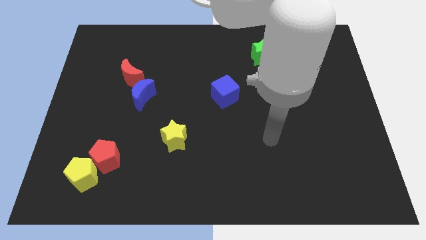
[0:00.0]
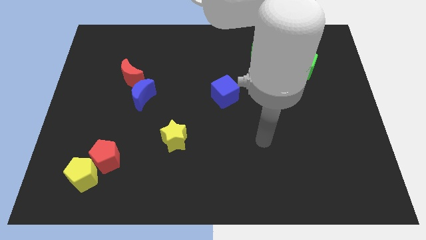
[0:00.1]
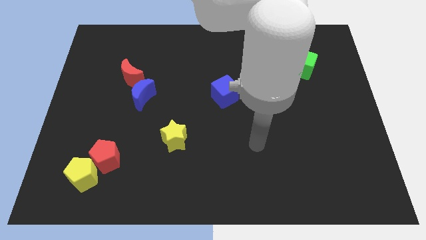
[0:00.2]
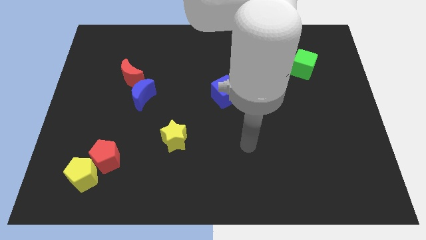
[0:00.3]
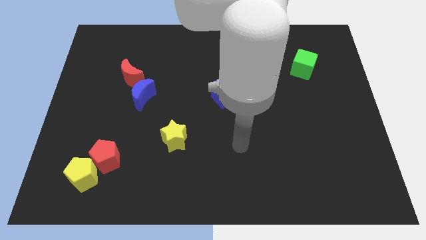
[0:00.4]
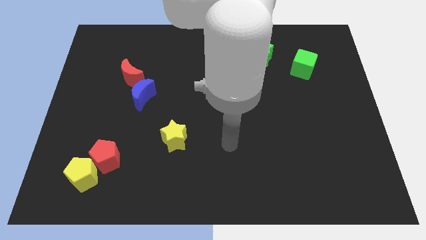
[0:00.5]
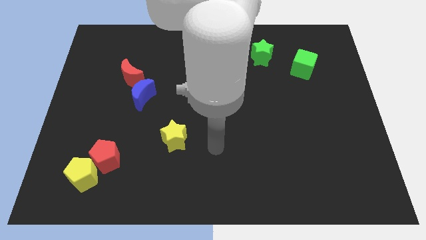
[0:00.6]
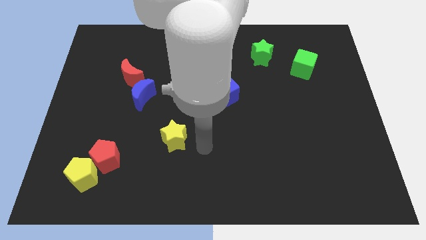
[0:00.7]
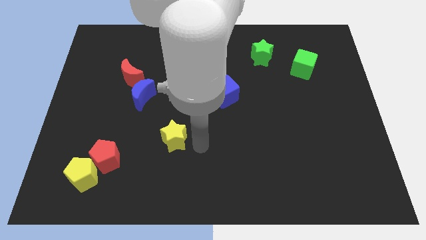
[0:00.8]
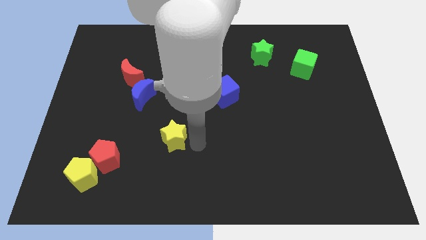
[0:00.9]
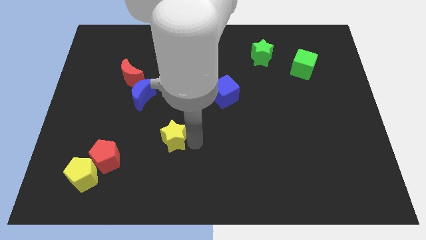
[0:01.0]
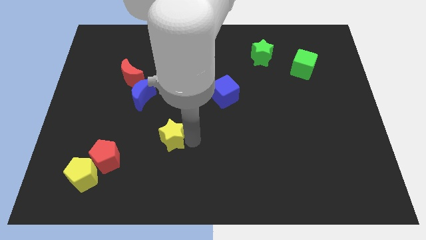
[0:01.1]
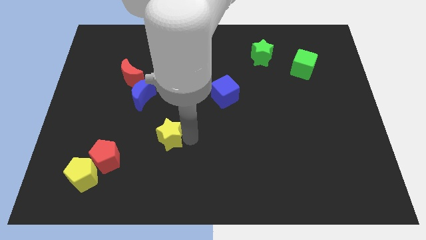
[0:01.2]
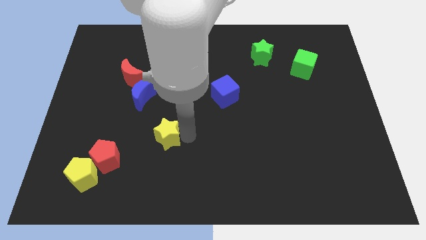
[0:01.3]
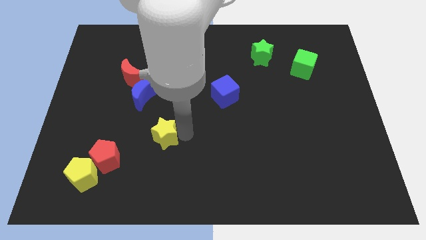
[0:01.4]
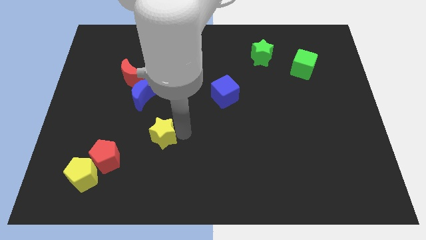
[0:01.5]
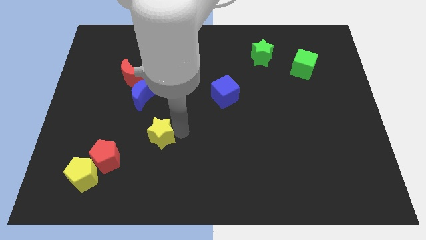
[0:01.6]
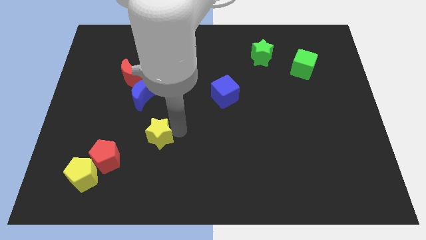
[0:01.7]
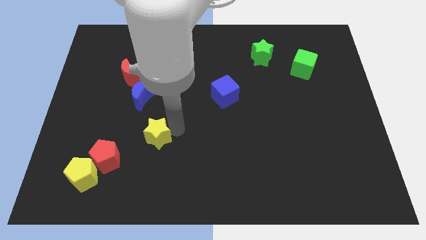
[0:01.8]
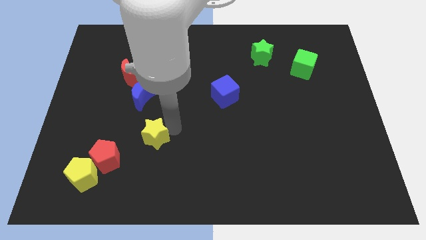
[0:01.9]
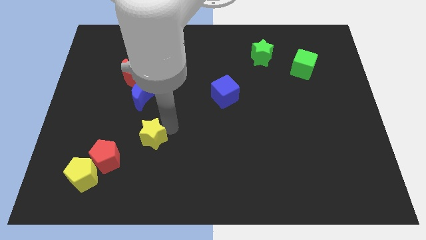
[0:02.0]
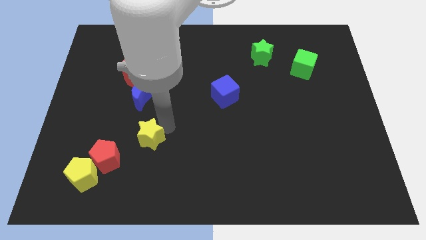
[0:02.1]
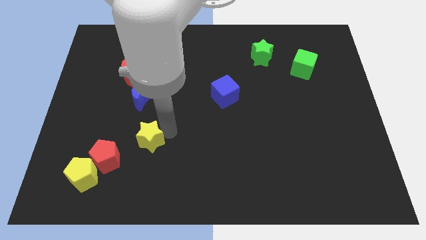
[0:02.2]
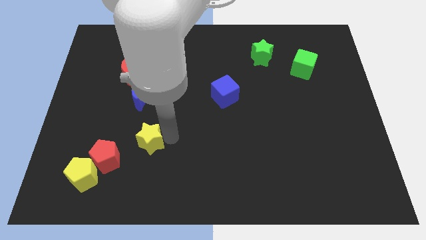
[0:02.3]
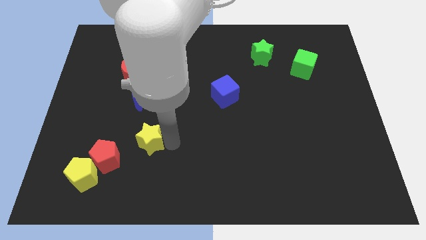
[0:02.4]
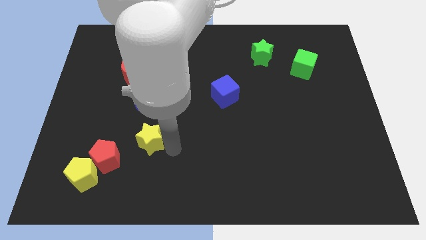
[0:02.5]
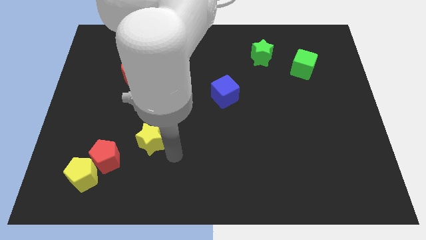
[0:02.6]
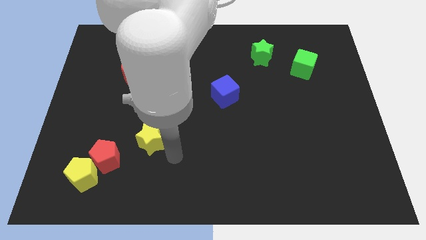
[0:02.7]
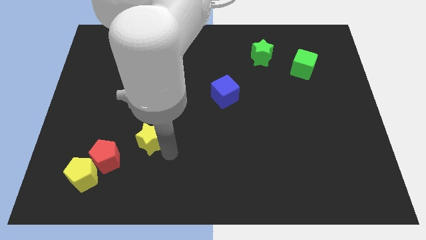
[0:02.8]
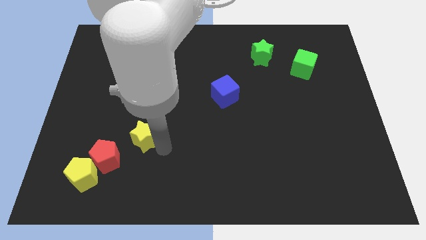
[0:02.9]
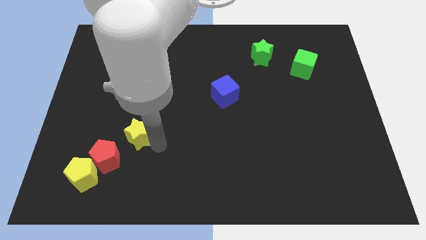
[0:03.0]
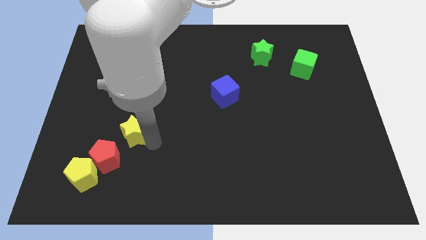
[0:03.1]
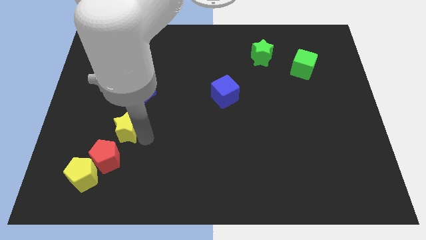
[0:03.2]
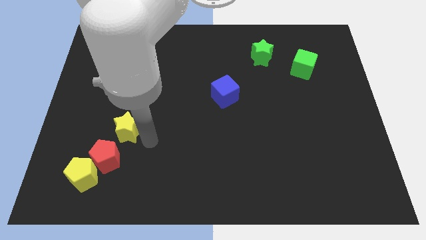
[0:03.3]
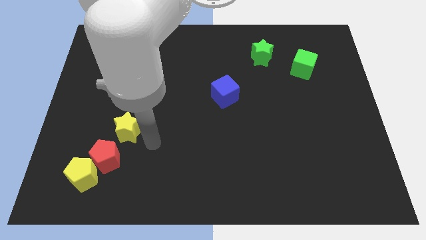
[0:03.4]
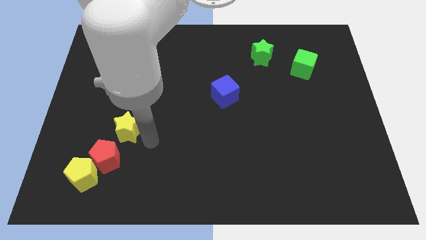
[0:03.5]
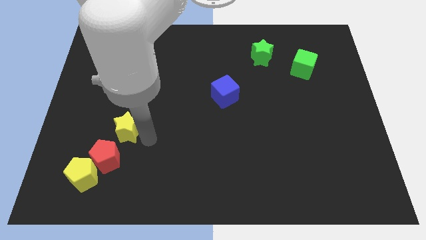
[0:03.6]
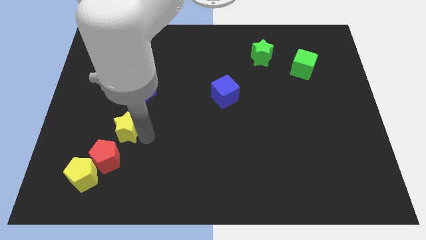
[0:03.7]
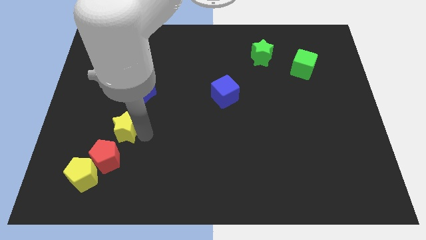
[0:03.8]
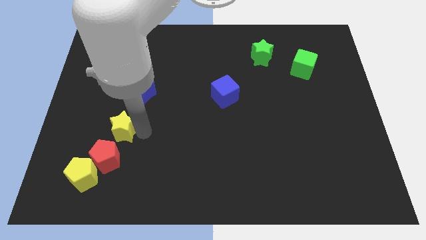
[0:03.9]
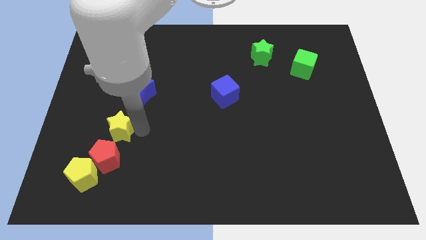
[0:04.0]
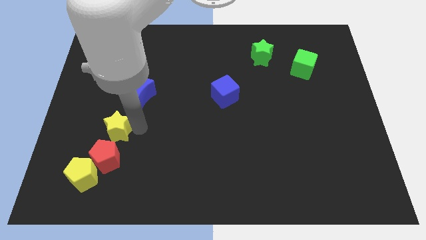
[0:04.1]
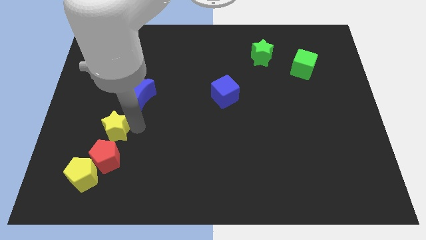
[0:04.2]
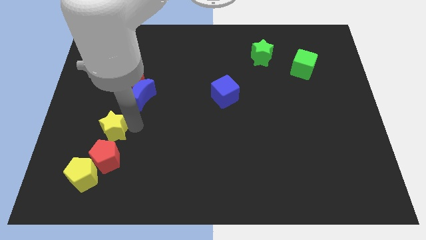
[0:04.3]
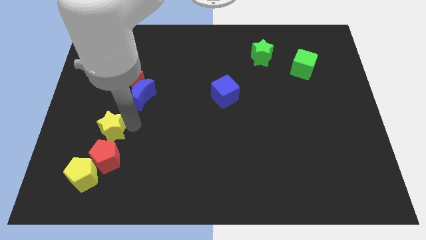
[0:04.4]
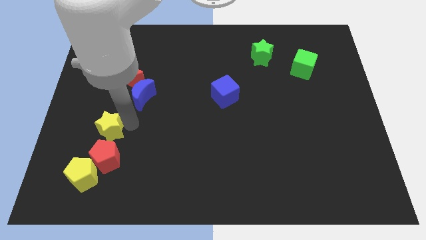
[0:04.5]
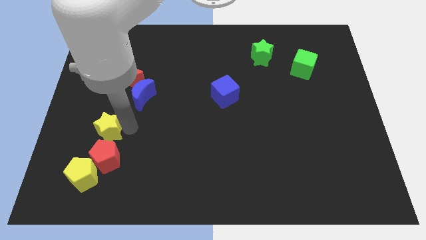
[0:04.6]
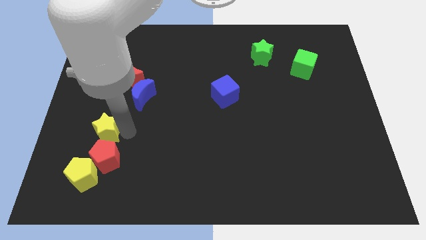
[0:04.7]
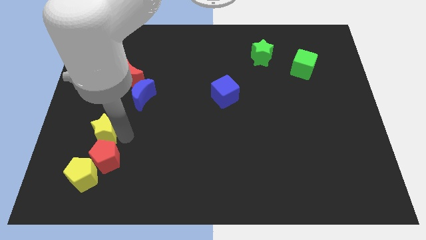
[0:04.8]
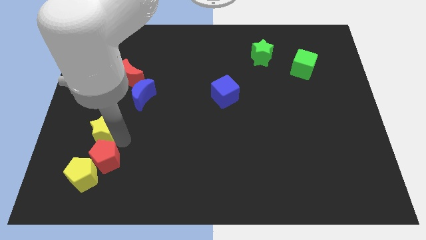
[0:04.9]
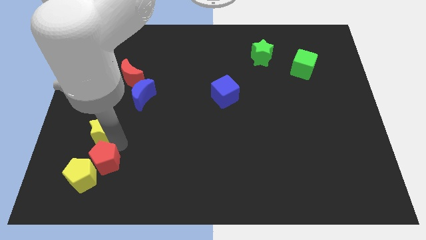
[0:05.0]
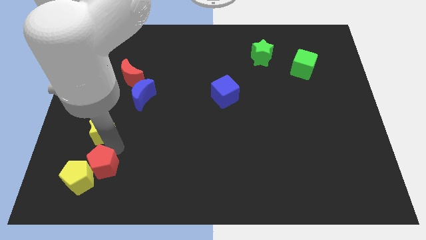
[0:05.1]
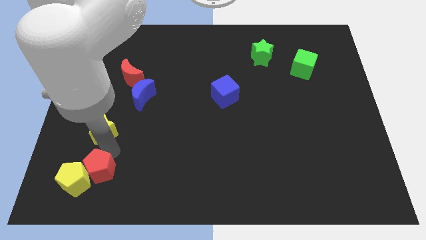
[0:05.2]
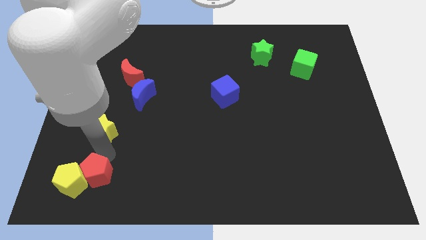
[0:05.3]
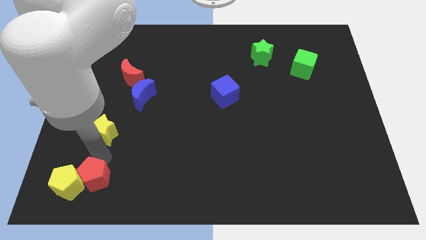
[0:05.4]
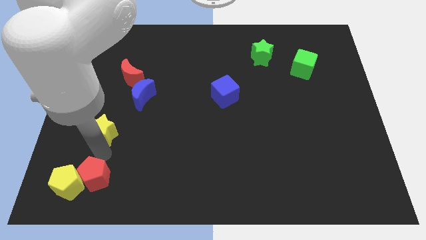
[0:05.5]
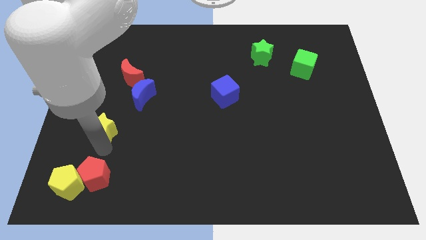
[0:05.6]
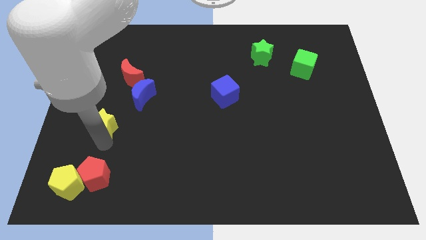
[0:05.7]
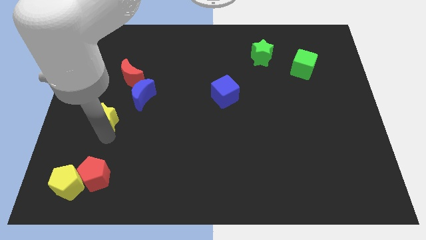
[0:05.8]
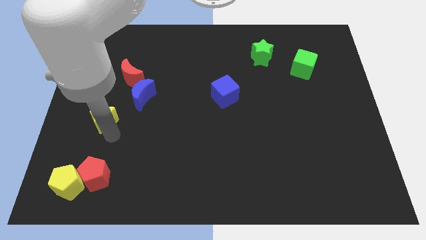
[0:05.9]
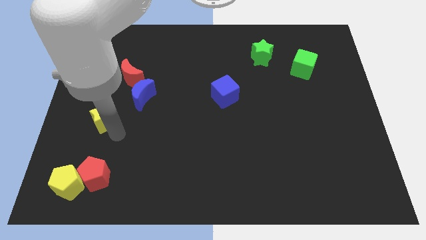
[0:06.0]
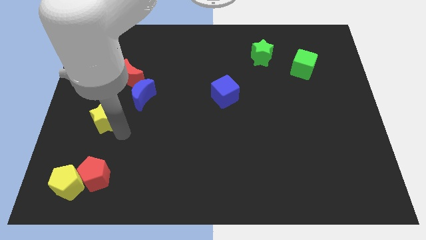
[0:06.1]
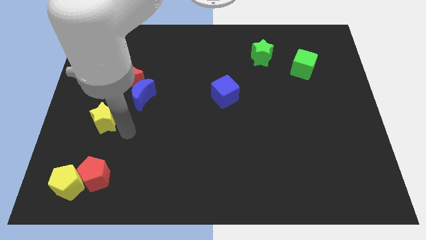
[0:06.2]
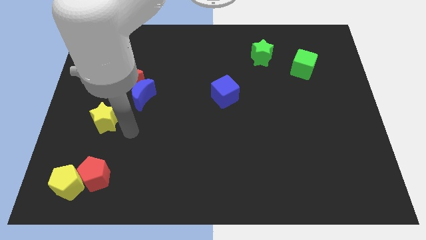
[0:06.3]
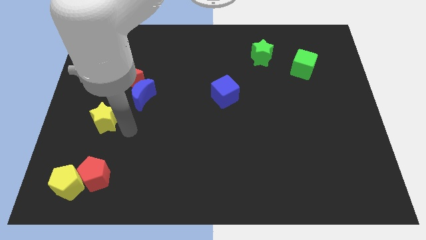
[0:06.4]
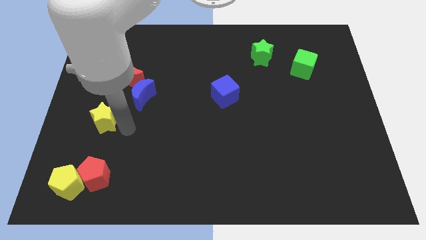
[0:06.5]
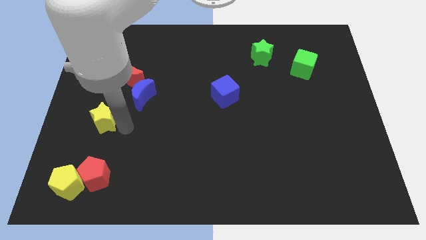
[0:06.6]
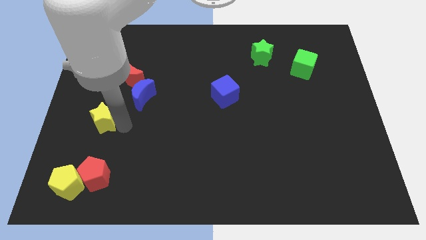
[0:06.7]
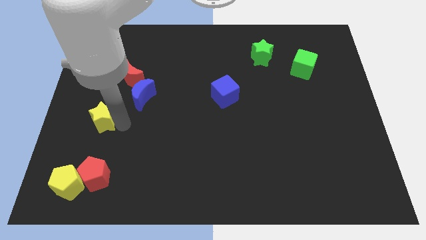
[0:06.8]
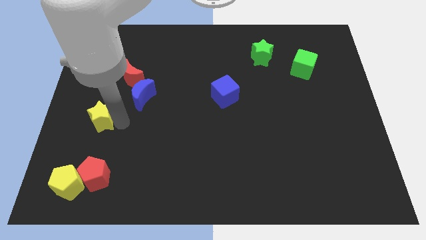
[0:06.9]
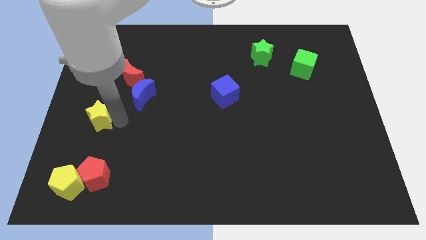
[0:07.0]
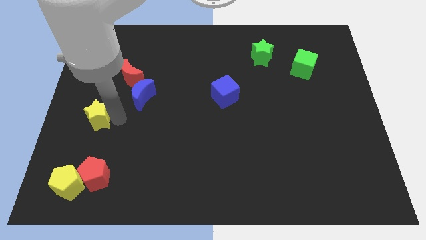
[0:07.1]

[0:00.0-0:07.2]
move the yellow star to the left side

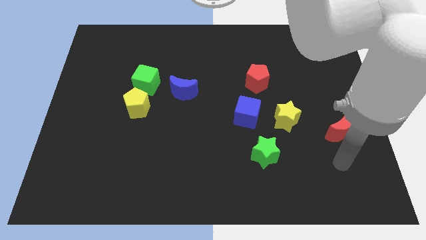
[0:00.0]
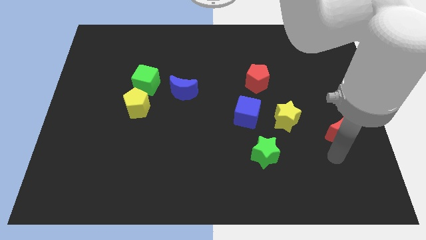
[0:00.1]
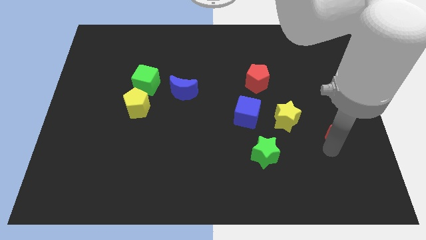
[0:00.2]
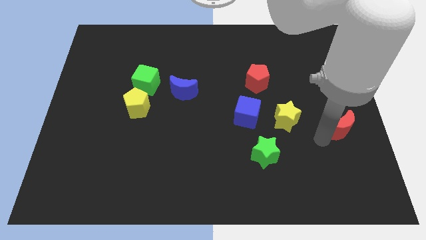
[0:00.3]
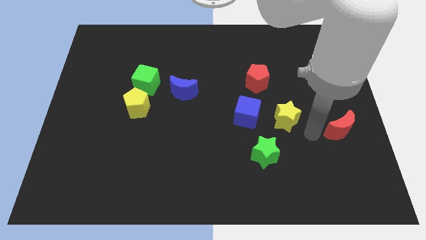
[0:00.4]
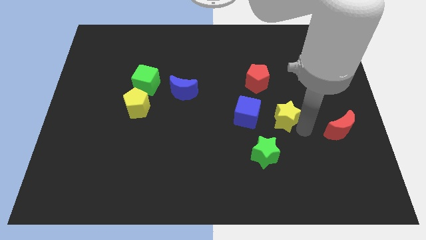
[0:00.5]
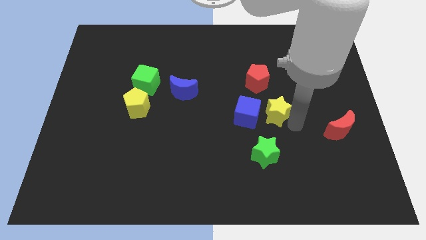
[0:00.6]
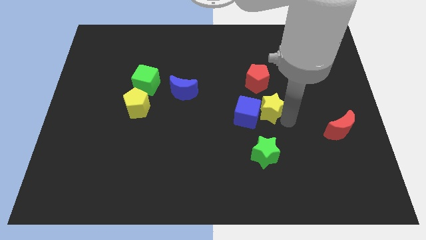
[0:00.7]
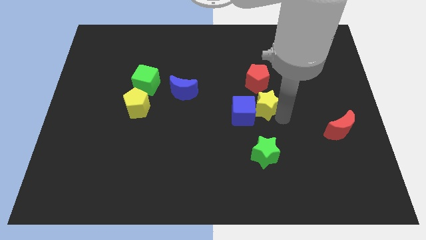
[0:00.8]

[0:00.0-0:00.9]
move the yellow star to the center
